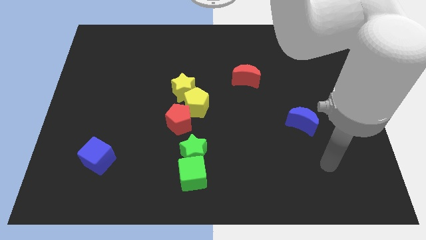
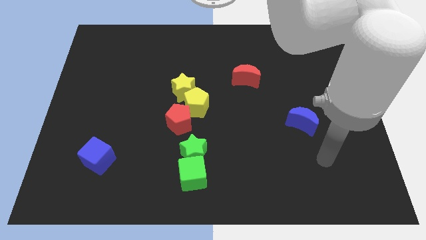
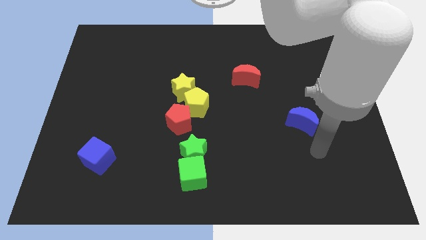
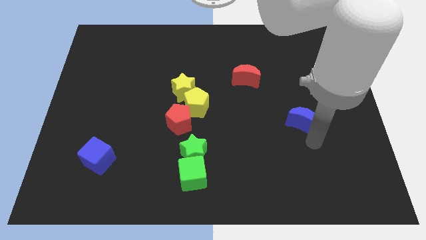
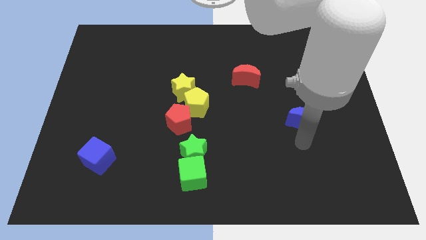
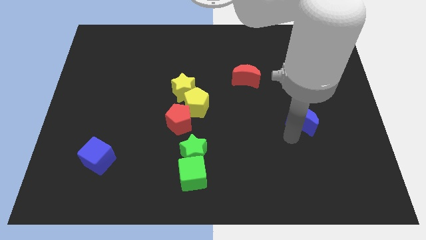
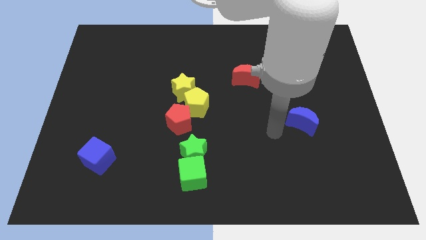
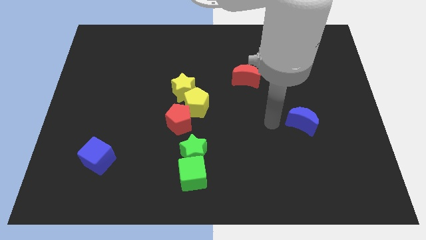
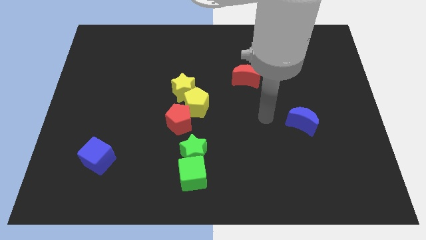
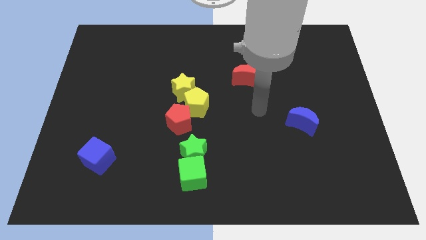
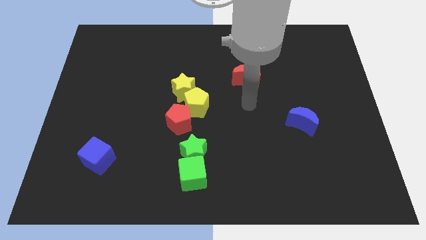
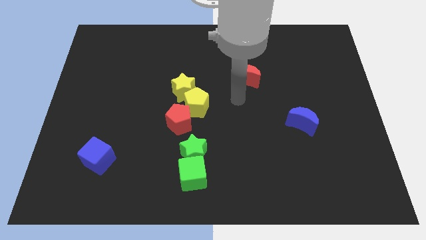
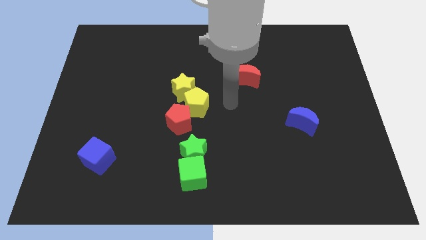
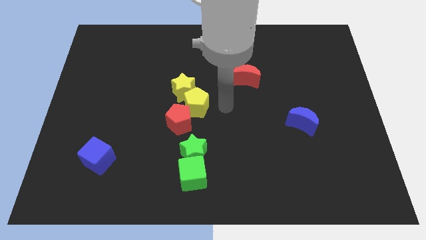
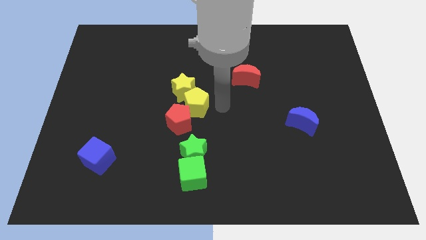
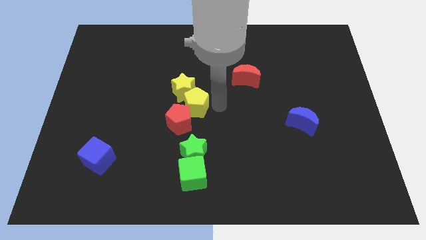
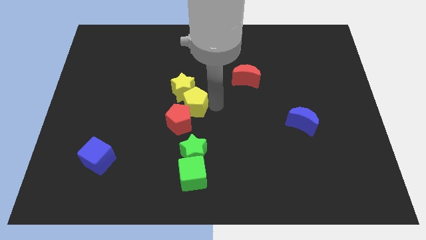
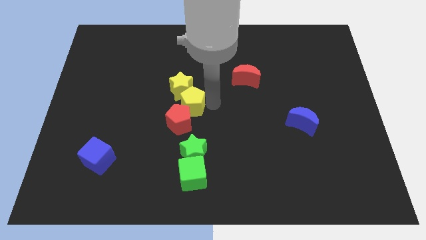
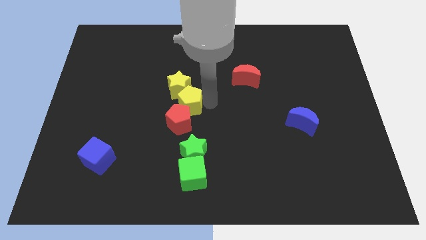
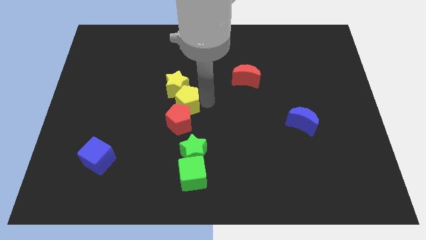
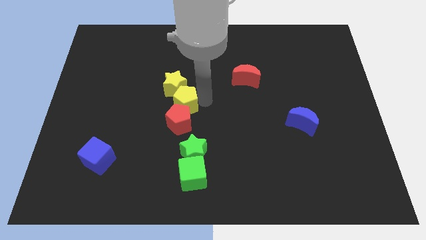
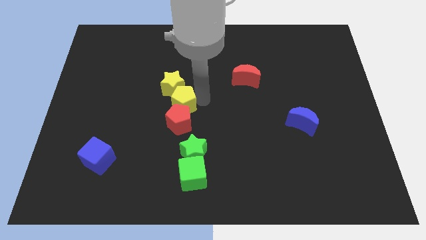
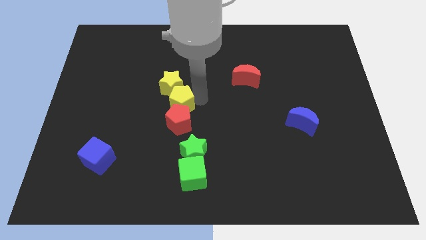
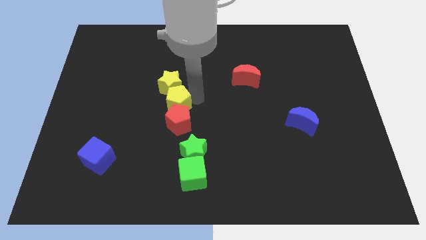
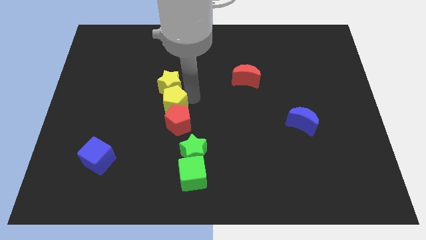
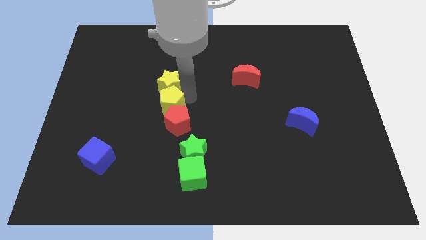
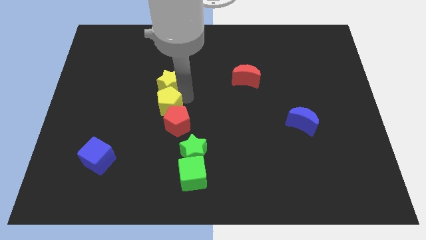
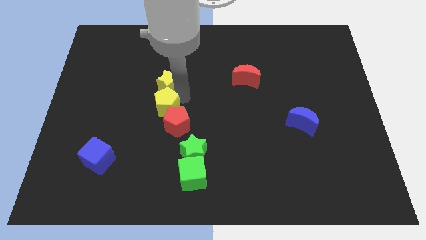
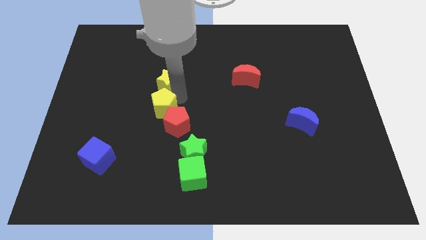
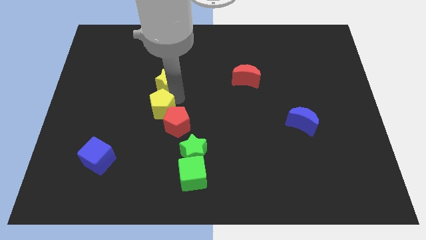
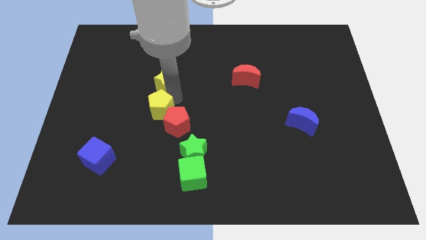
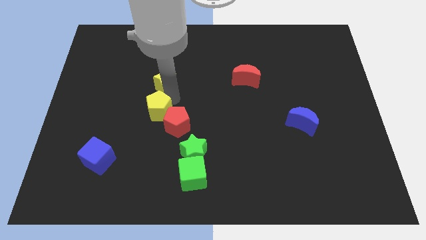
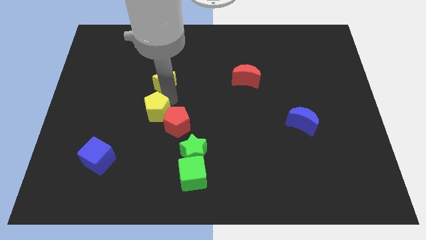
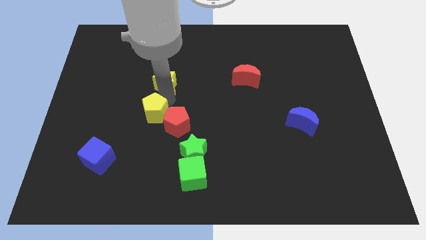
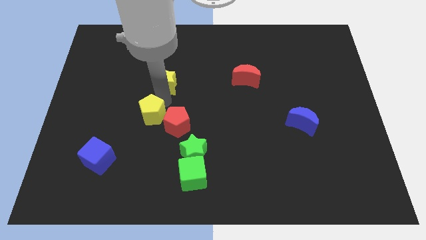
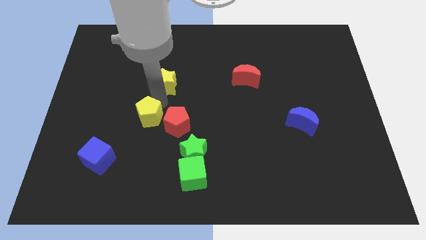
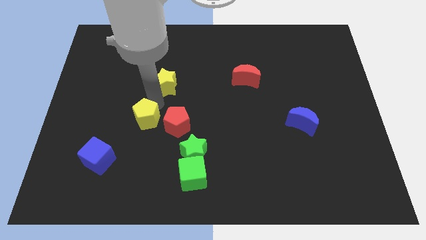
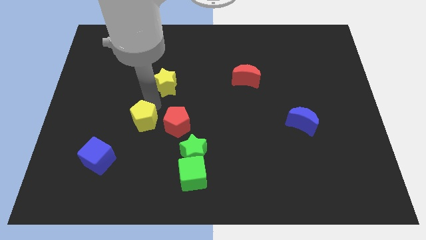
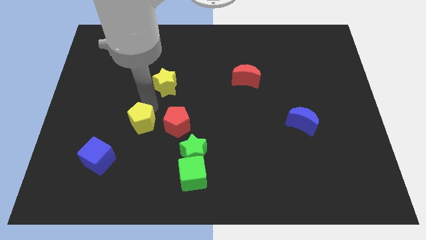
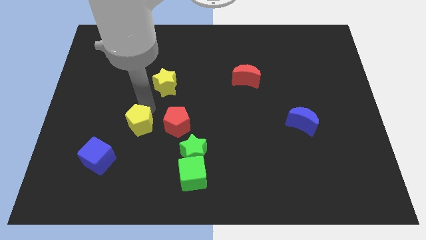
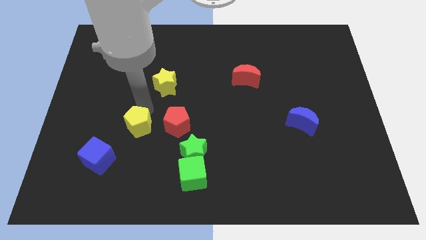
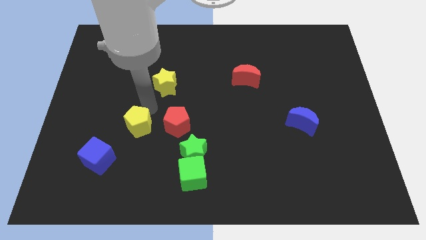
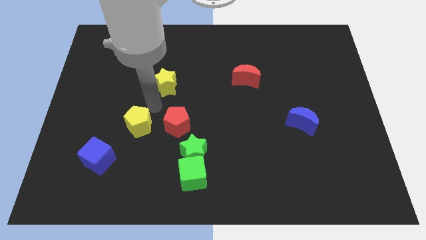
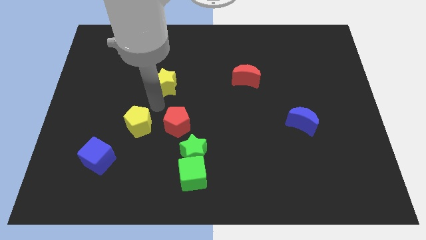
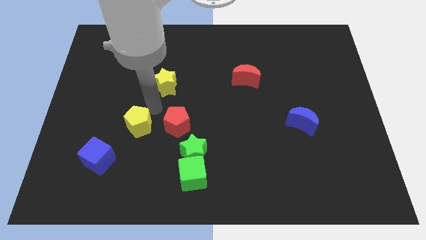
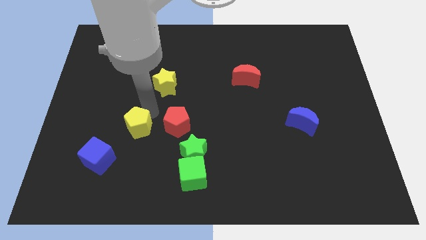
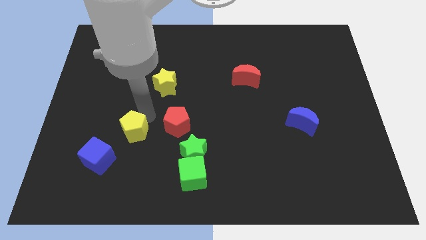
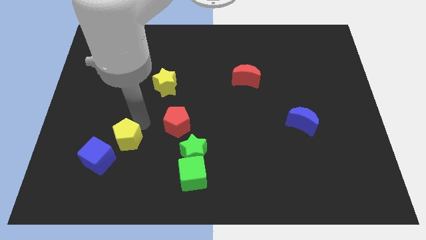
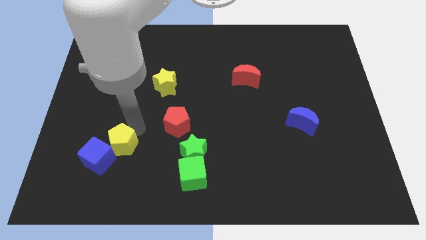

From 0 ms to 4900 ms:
move the yellow pentagon next to the blue cube

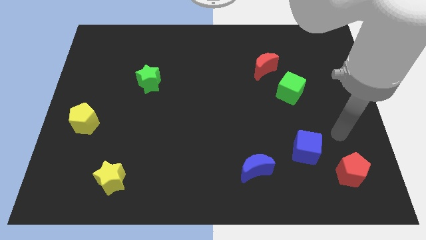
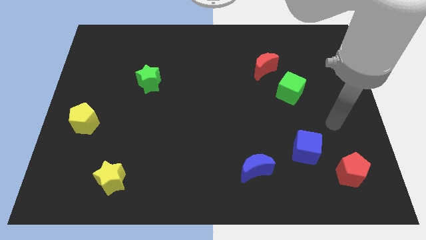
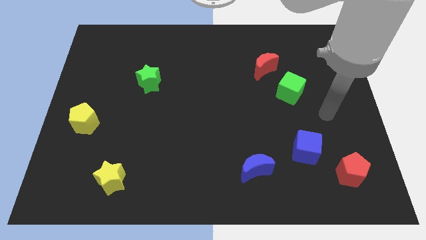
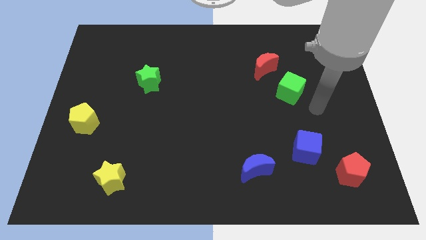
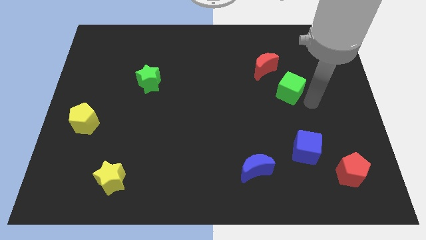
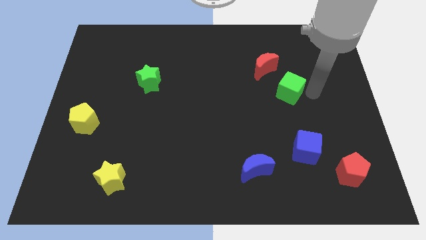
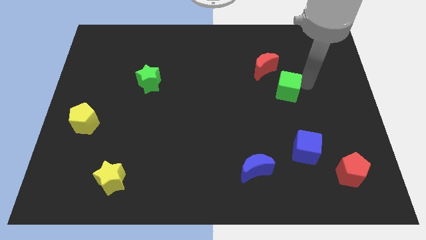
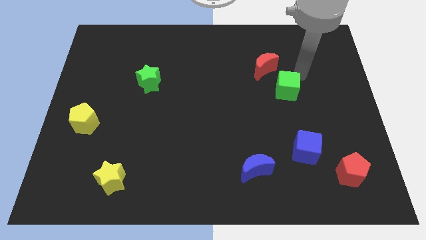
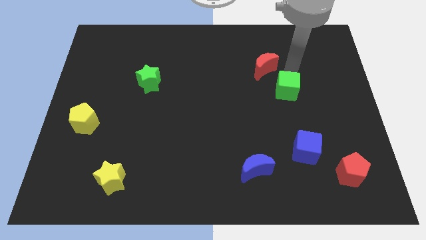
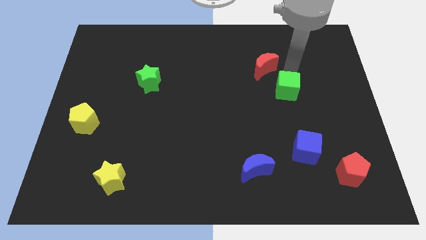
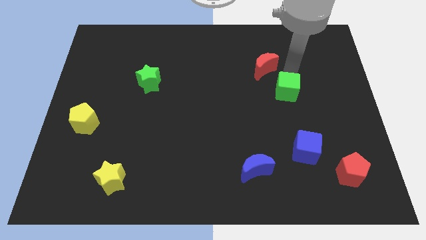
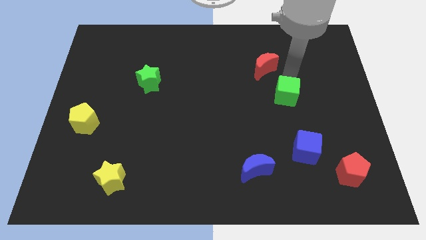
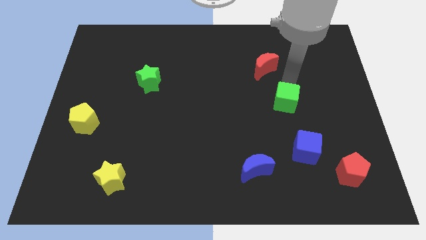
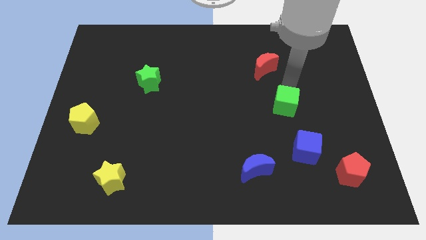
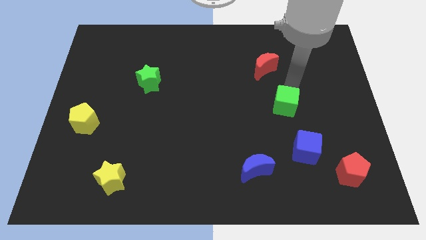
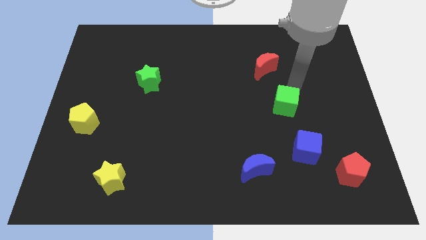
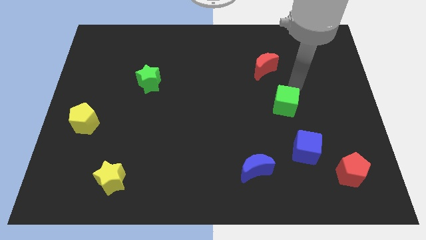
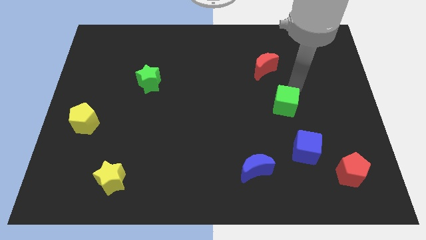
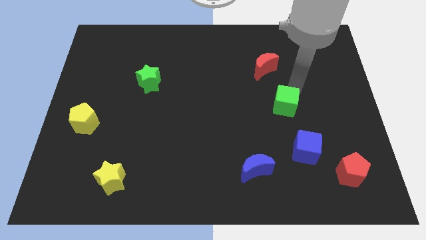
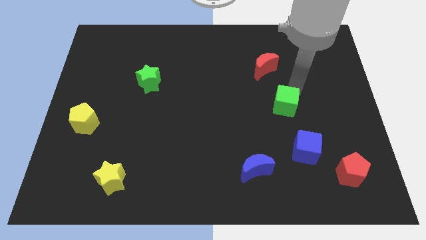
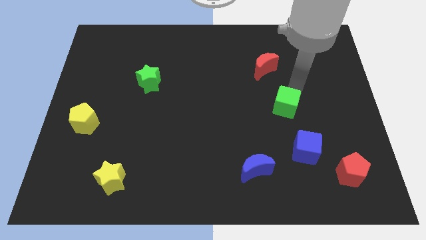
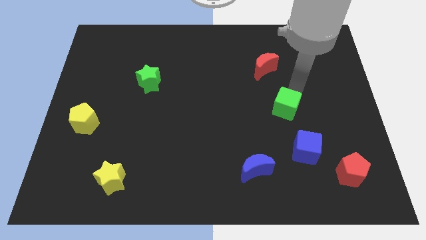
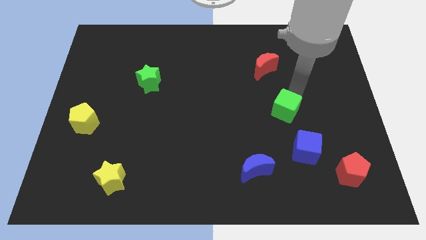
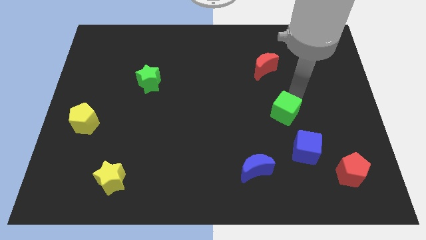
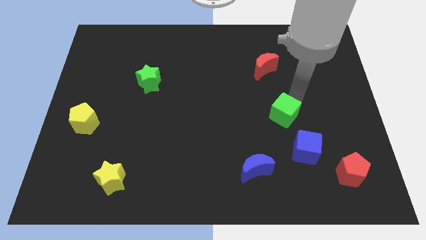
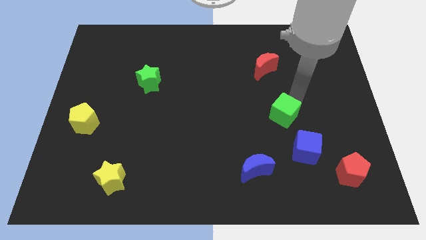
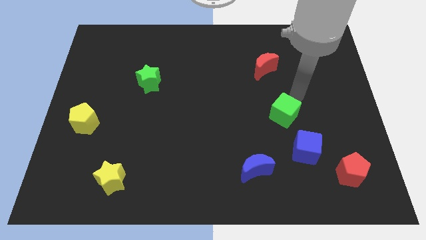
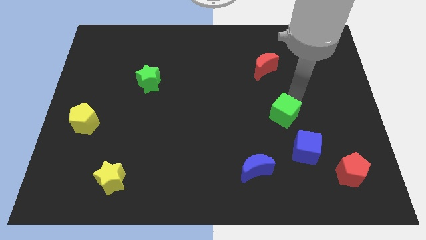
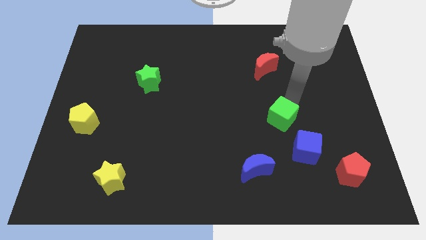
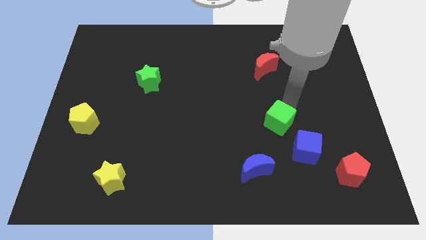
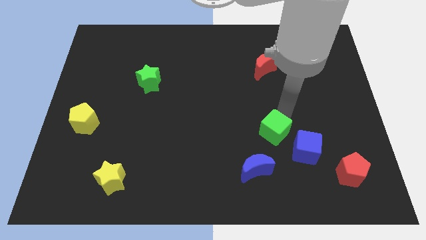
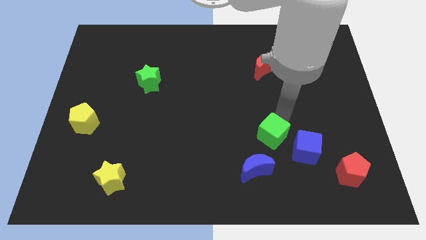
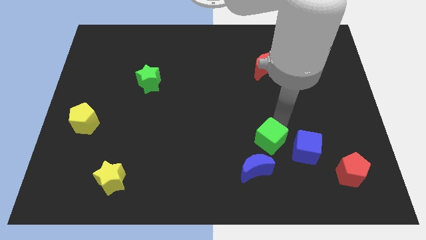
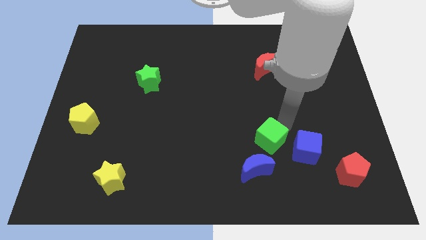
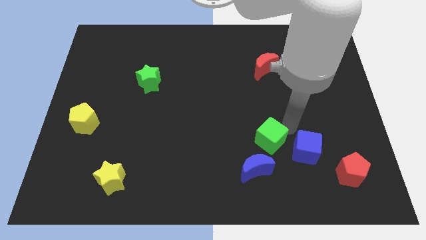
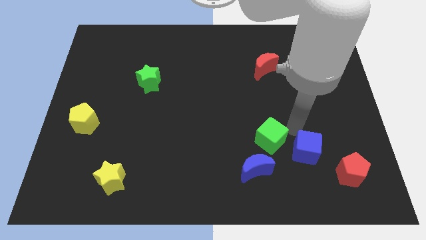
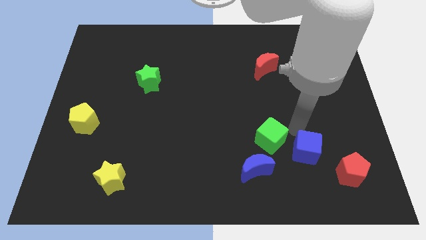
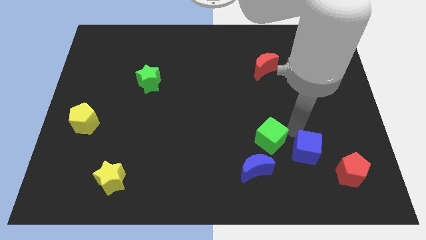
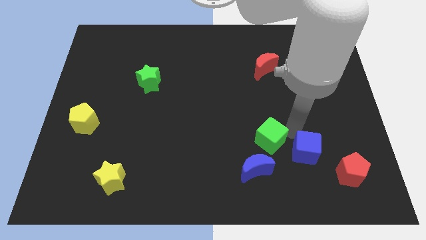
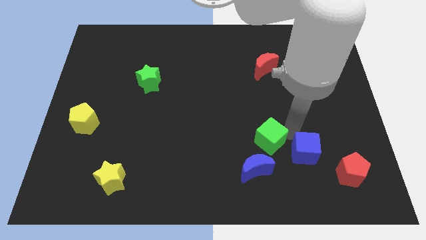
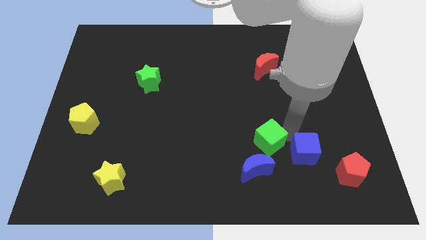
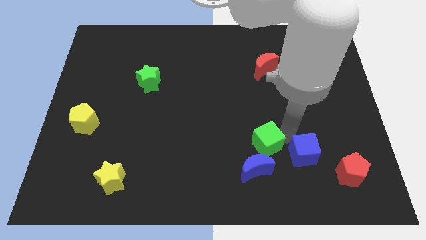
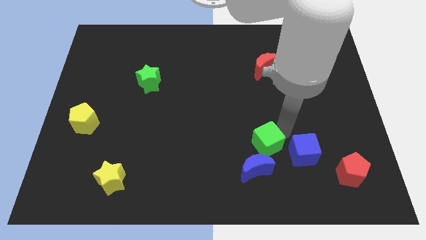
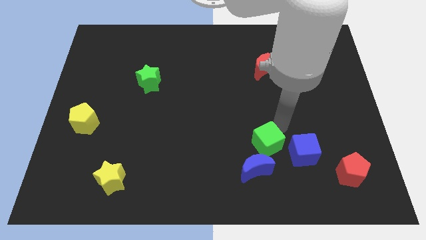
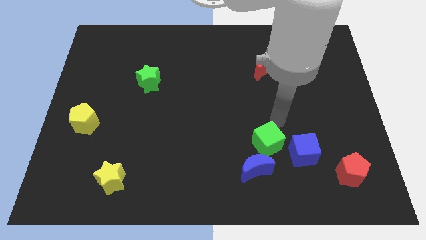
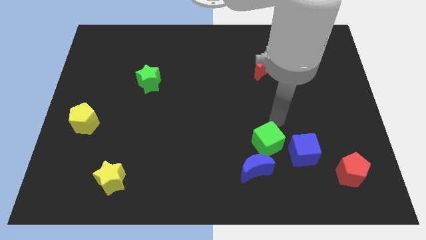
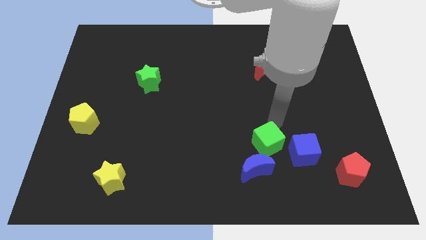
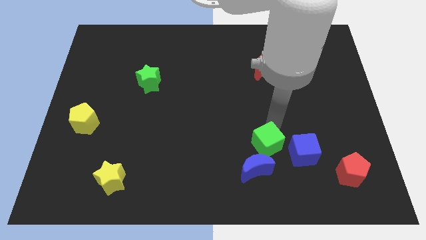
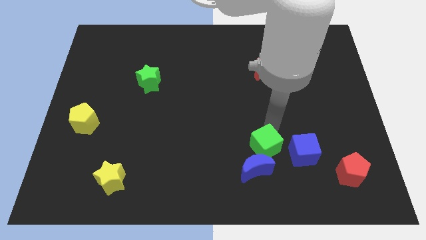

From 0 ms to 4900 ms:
push the green cube close to the blue moon
